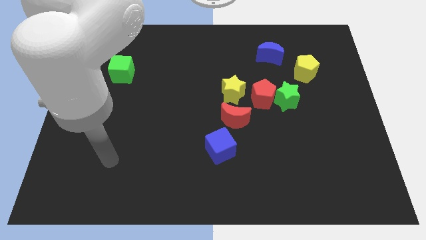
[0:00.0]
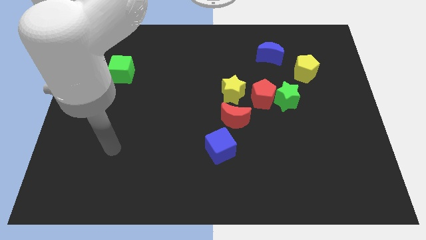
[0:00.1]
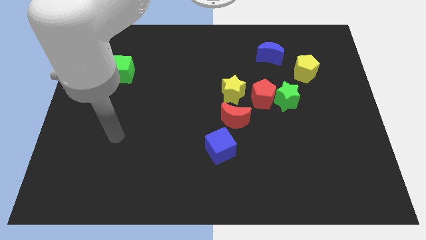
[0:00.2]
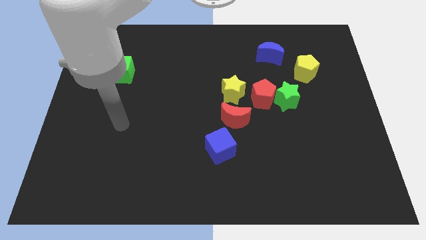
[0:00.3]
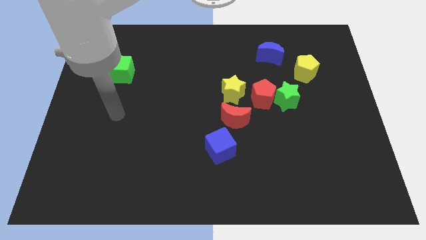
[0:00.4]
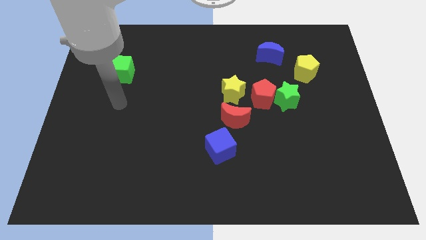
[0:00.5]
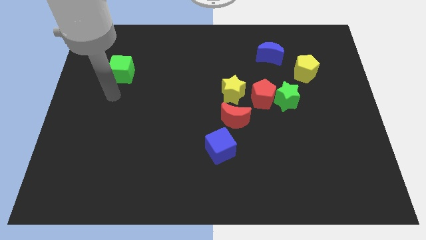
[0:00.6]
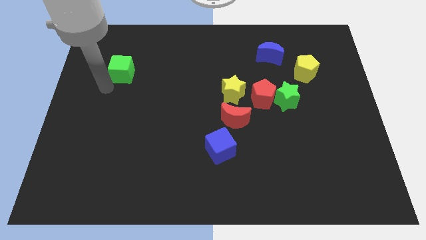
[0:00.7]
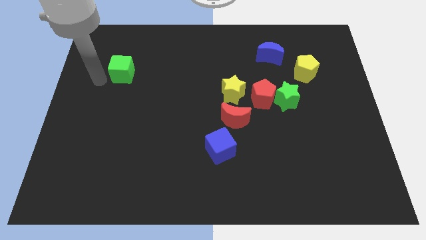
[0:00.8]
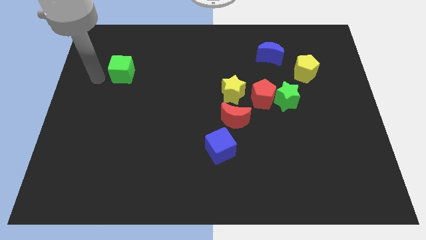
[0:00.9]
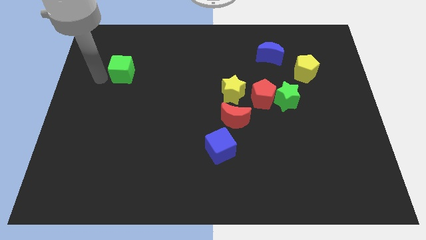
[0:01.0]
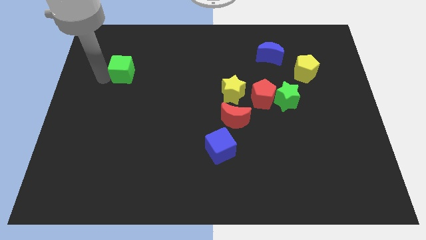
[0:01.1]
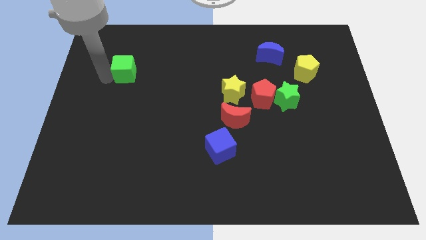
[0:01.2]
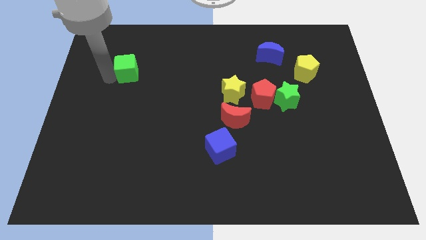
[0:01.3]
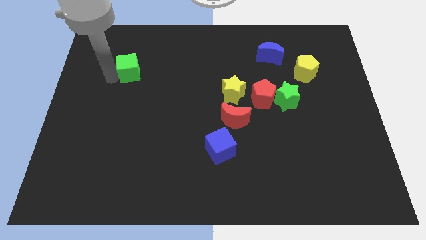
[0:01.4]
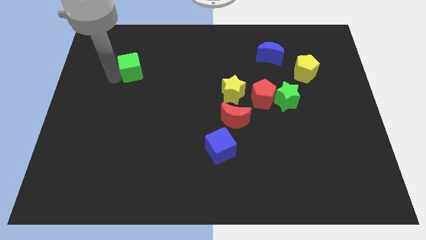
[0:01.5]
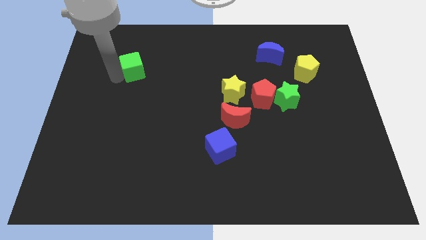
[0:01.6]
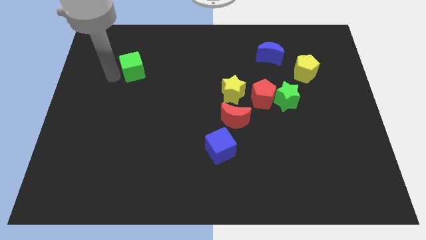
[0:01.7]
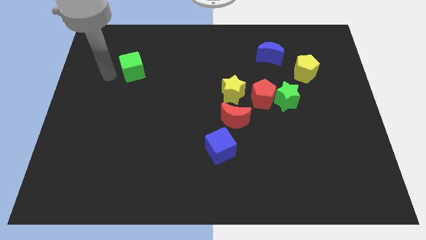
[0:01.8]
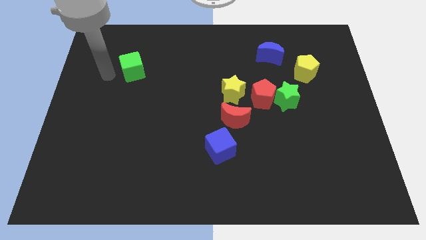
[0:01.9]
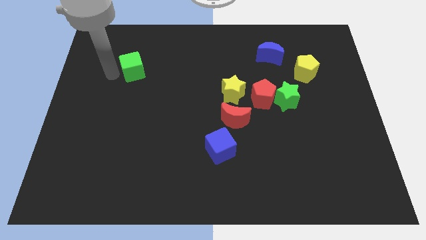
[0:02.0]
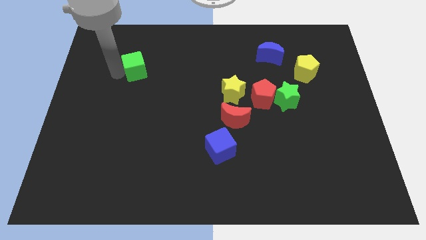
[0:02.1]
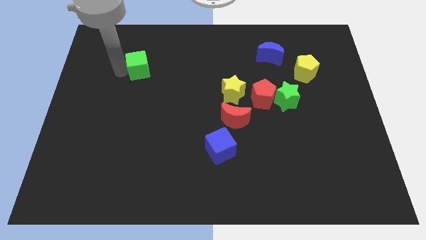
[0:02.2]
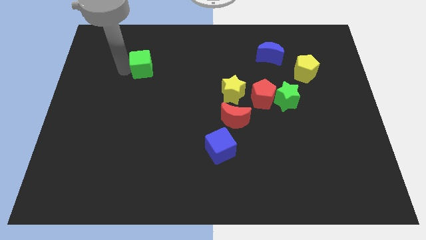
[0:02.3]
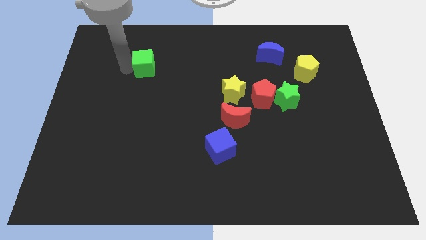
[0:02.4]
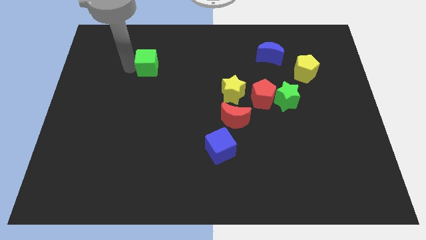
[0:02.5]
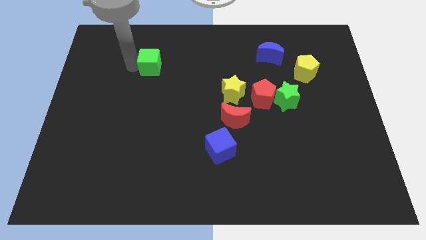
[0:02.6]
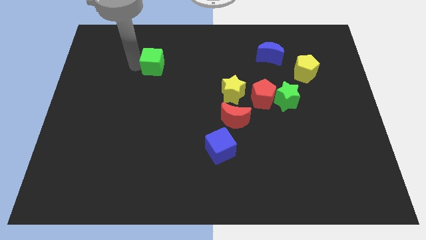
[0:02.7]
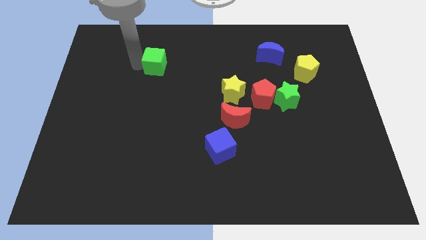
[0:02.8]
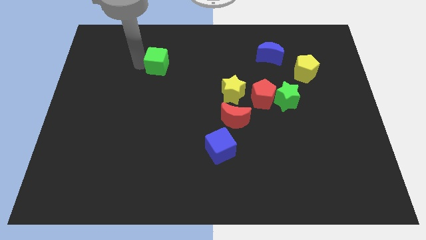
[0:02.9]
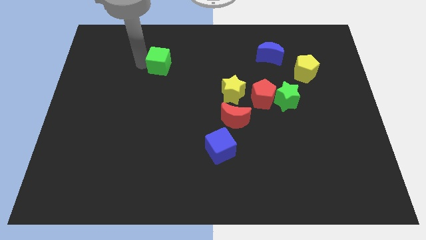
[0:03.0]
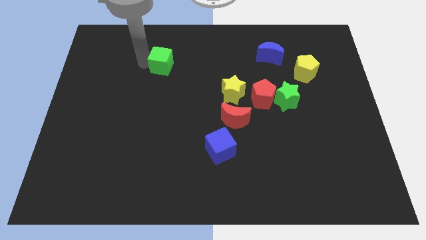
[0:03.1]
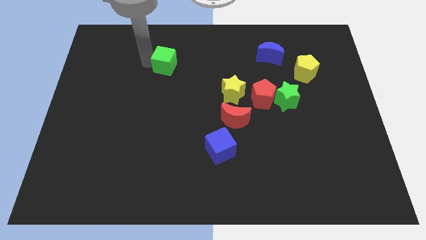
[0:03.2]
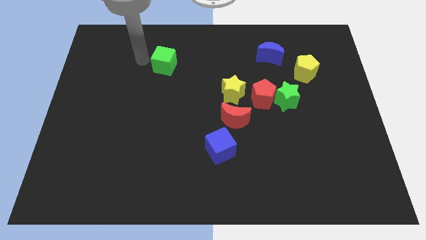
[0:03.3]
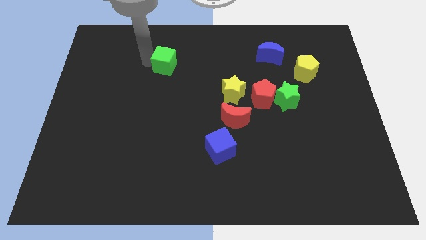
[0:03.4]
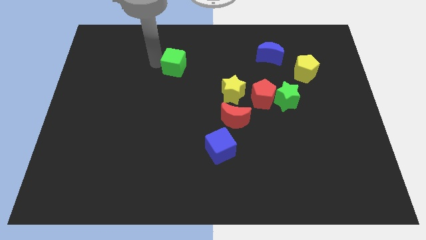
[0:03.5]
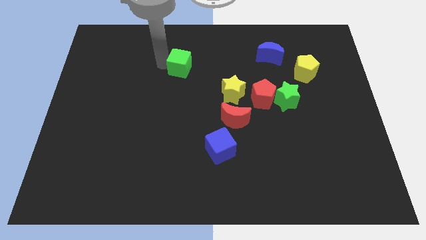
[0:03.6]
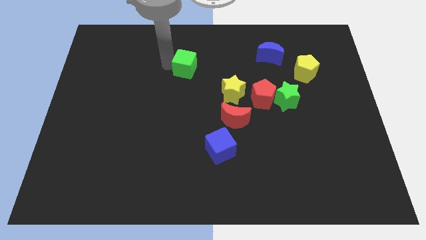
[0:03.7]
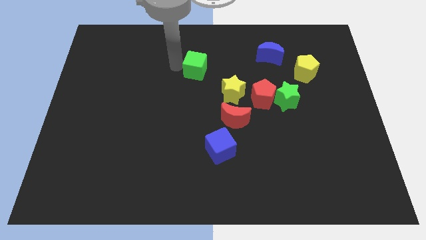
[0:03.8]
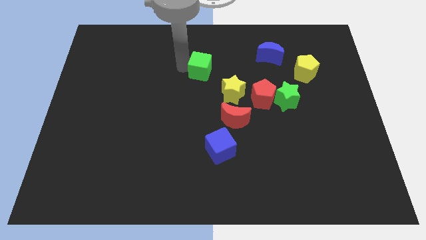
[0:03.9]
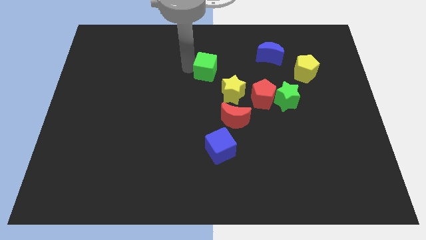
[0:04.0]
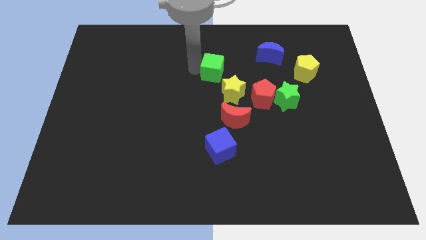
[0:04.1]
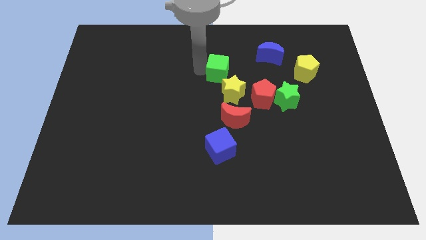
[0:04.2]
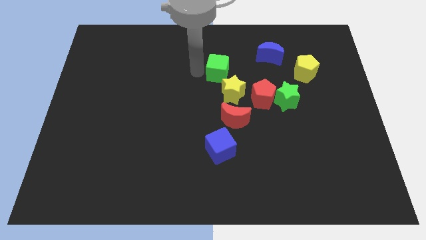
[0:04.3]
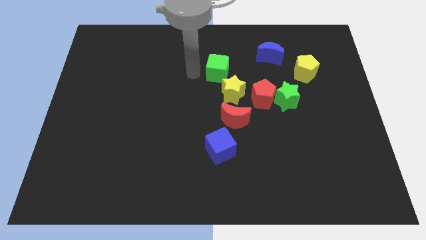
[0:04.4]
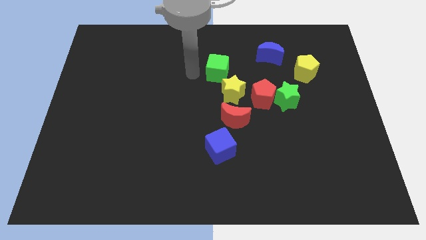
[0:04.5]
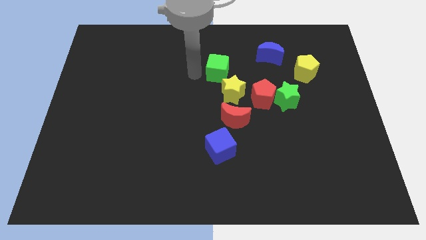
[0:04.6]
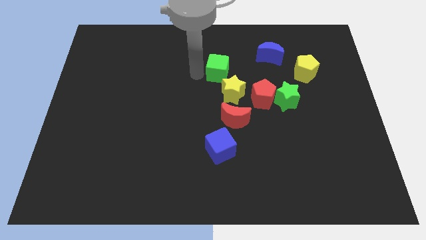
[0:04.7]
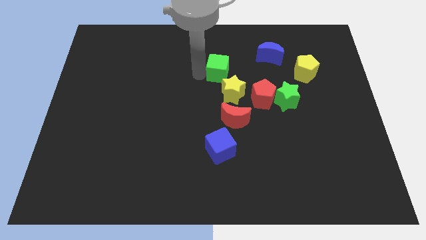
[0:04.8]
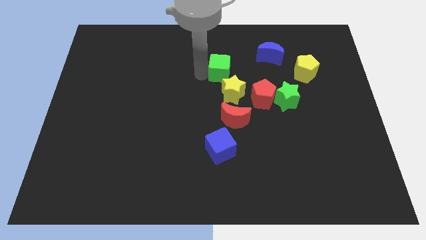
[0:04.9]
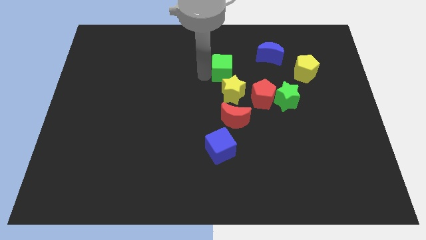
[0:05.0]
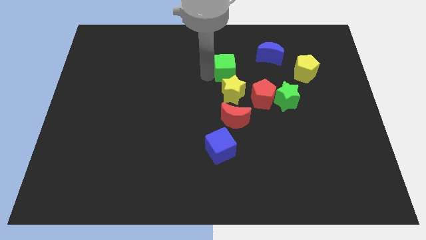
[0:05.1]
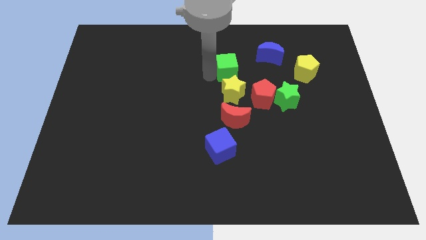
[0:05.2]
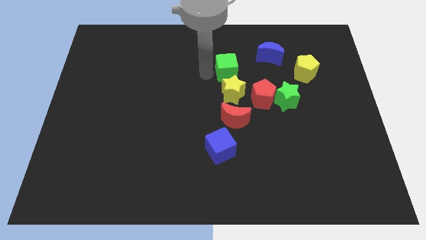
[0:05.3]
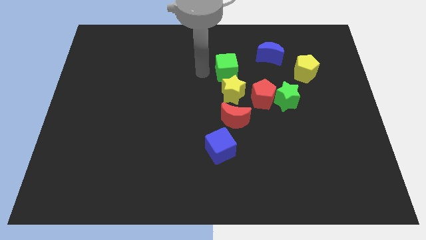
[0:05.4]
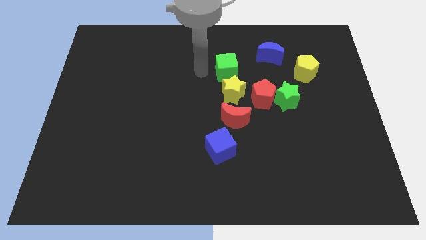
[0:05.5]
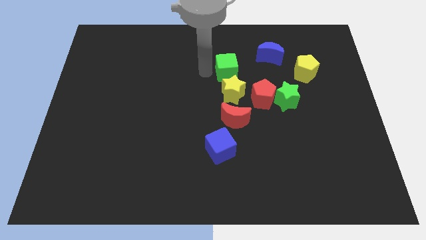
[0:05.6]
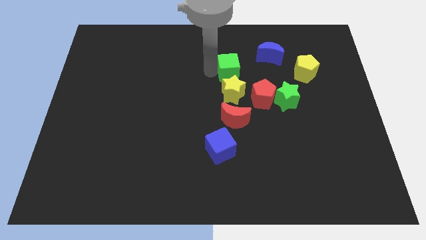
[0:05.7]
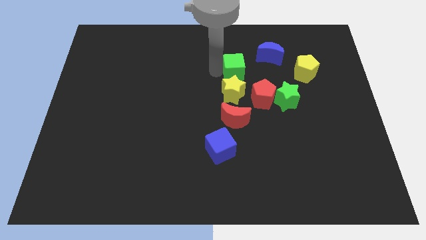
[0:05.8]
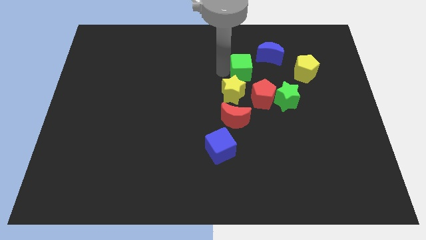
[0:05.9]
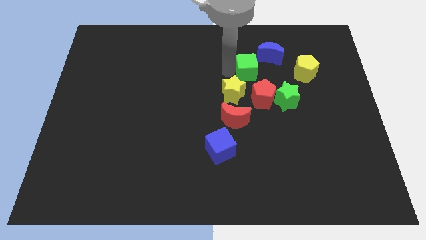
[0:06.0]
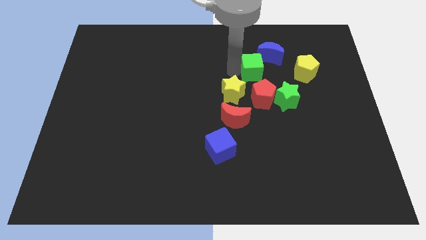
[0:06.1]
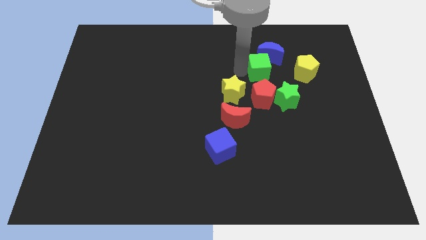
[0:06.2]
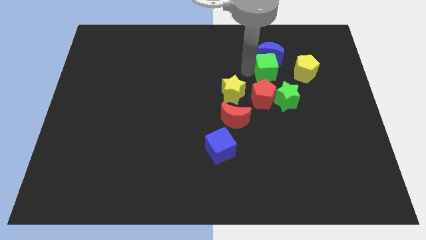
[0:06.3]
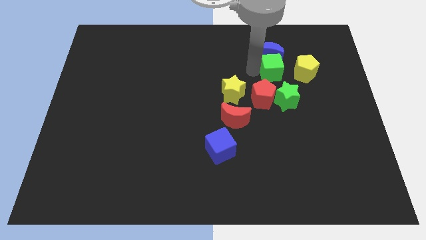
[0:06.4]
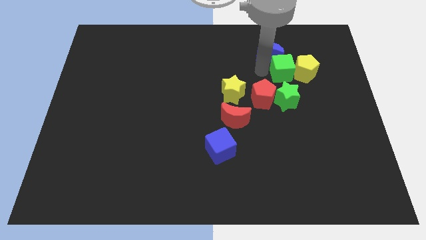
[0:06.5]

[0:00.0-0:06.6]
push the green cube close to the yellow pentagon
